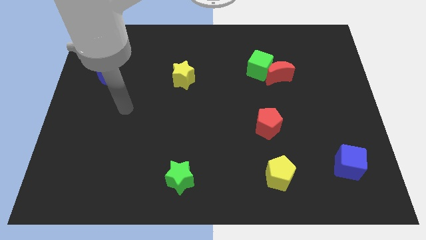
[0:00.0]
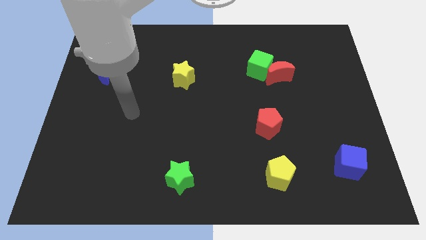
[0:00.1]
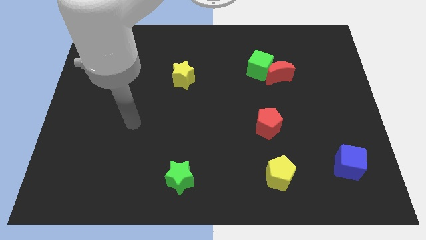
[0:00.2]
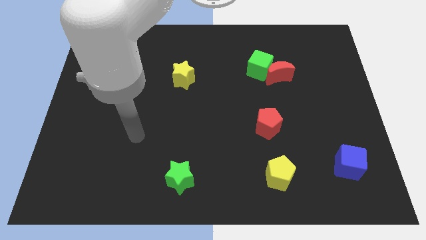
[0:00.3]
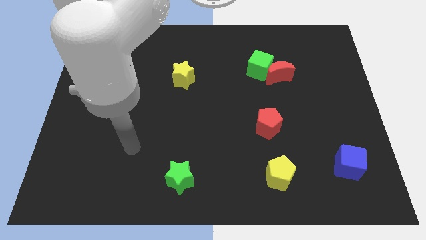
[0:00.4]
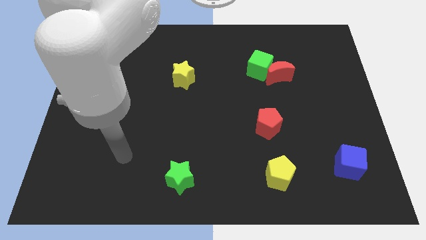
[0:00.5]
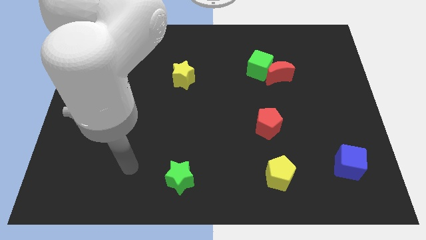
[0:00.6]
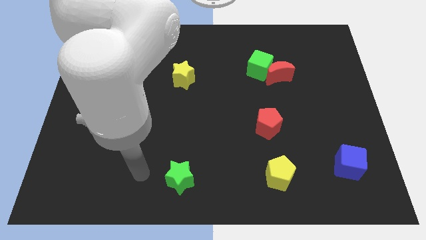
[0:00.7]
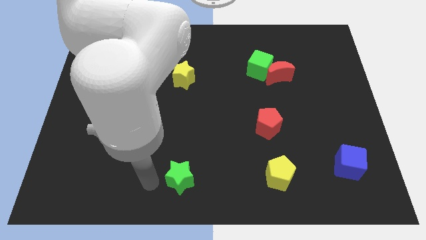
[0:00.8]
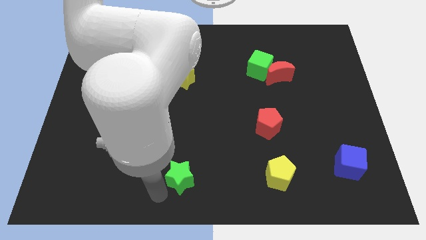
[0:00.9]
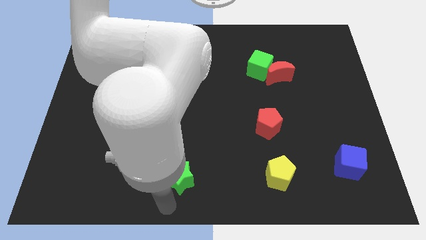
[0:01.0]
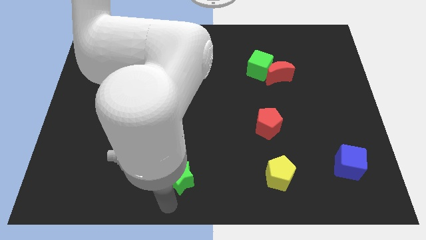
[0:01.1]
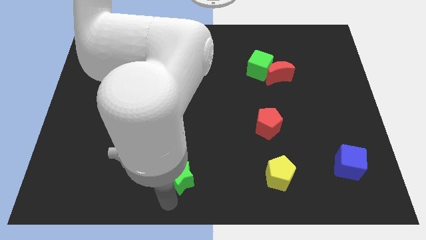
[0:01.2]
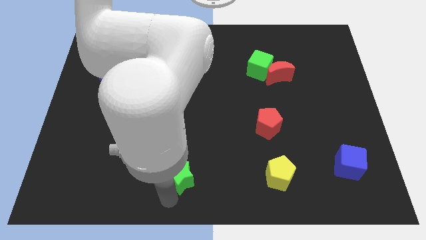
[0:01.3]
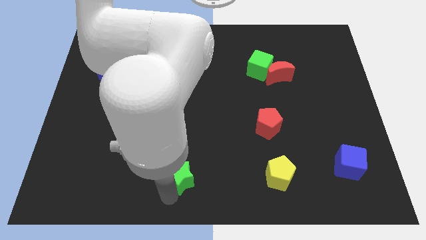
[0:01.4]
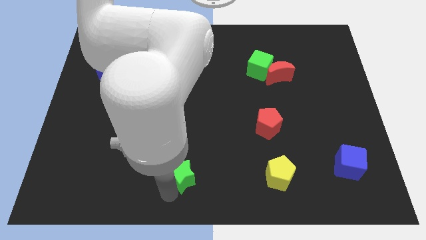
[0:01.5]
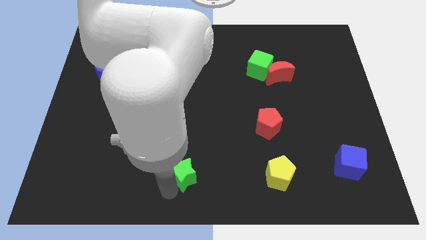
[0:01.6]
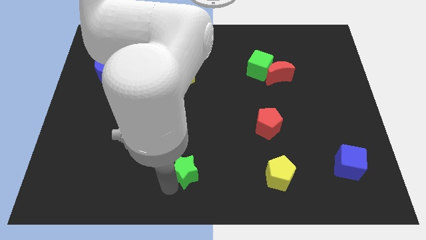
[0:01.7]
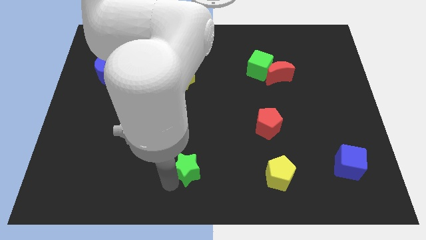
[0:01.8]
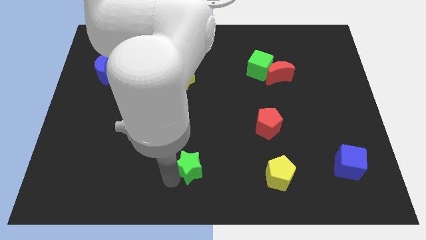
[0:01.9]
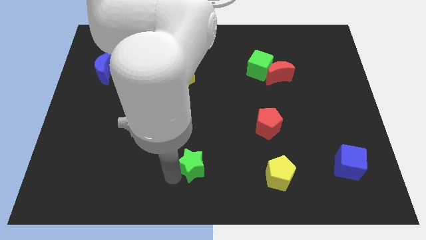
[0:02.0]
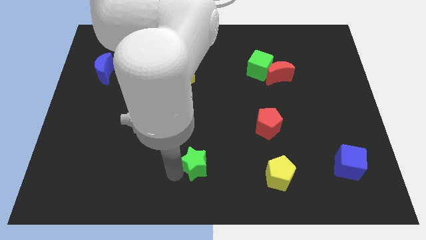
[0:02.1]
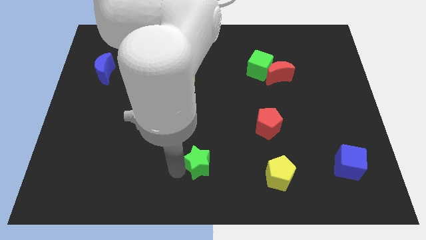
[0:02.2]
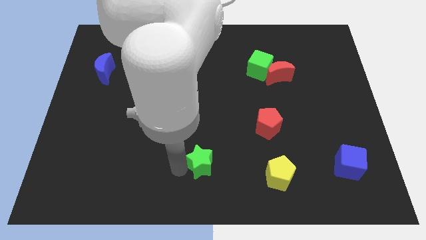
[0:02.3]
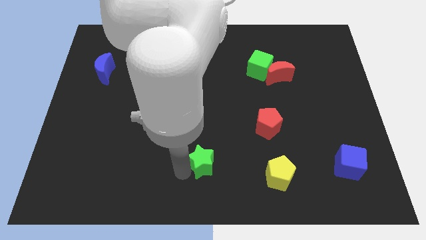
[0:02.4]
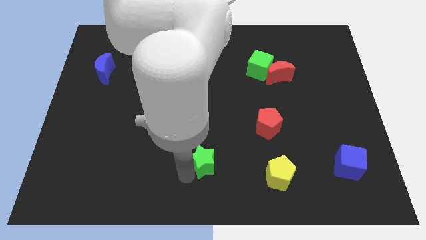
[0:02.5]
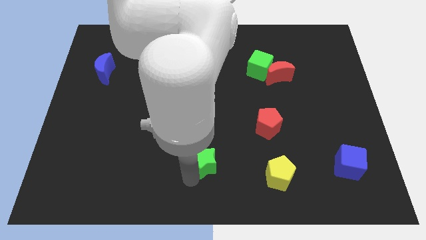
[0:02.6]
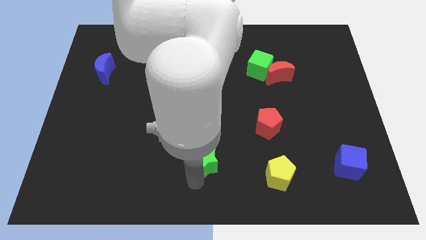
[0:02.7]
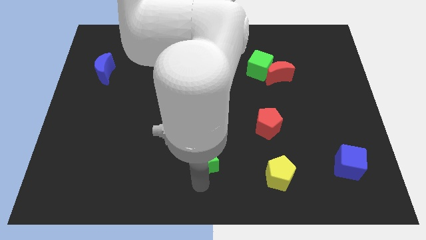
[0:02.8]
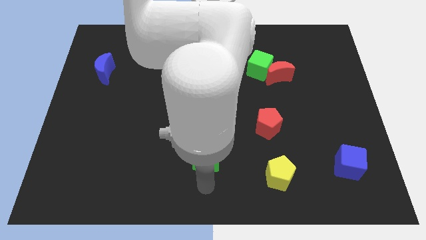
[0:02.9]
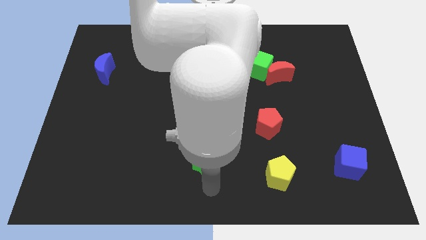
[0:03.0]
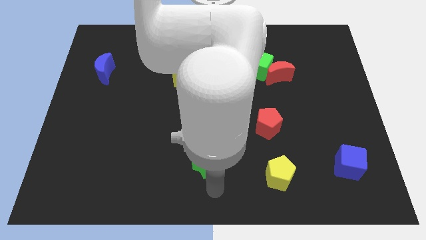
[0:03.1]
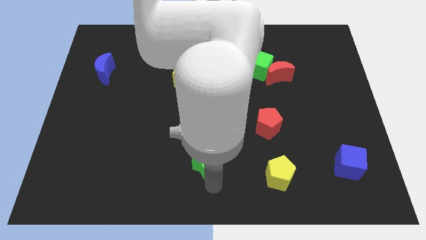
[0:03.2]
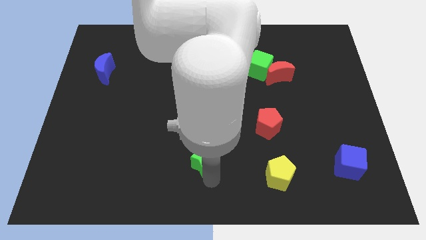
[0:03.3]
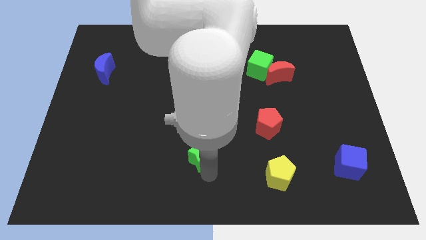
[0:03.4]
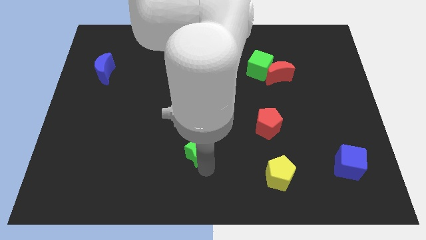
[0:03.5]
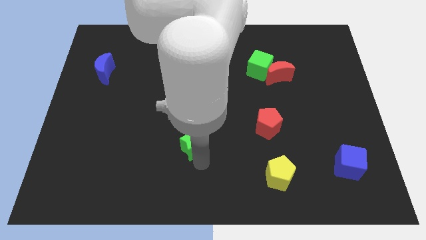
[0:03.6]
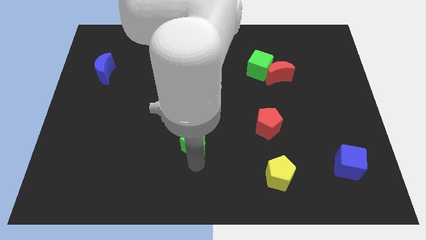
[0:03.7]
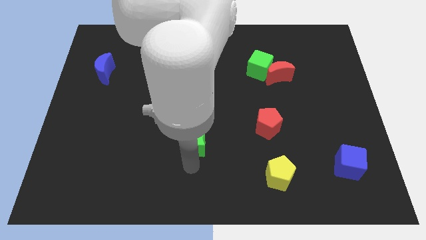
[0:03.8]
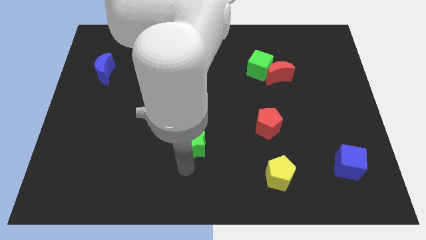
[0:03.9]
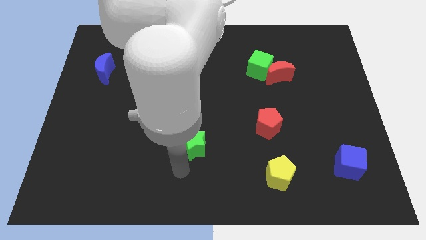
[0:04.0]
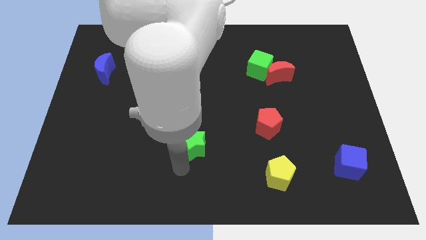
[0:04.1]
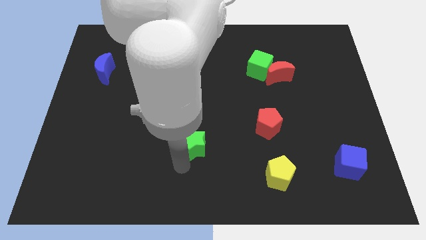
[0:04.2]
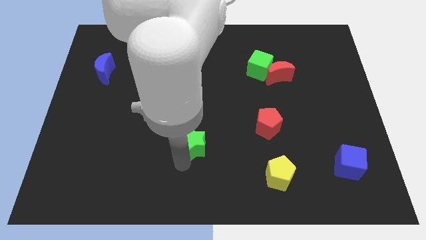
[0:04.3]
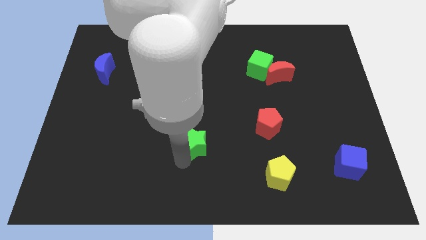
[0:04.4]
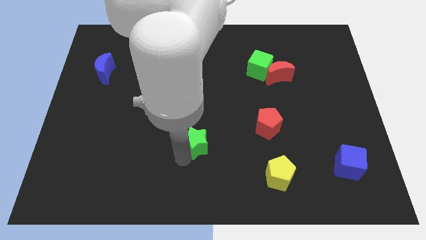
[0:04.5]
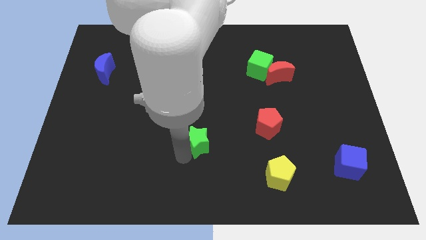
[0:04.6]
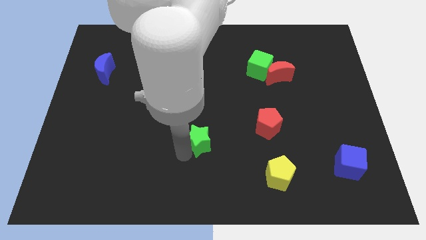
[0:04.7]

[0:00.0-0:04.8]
move the green star to the center of the board

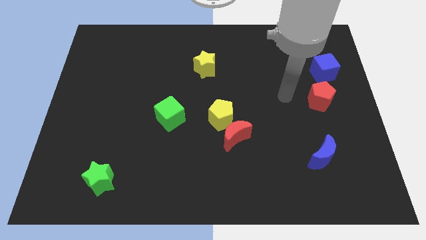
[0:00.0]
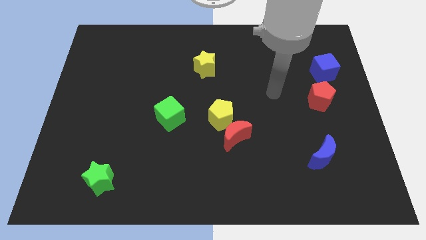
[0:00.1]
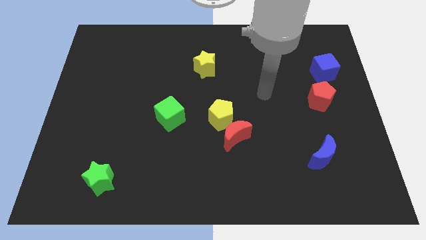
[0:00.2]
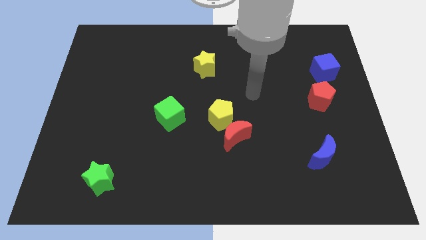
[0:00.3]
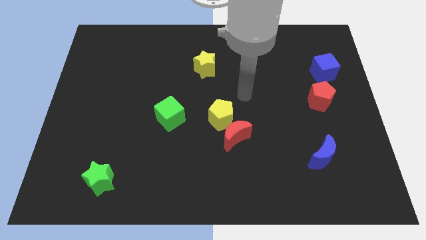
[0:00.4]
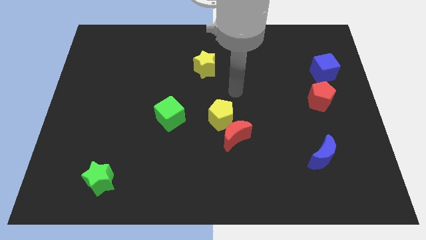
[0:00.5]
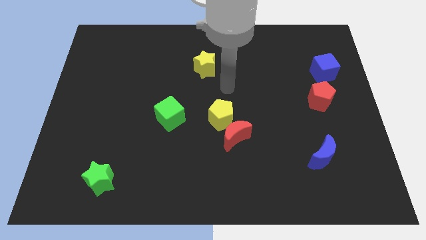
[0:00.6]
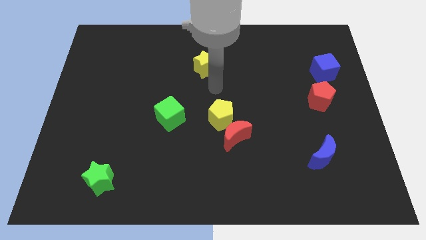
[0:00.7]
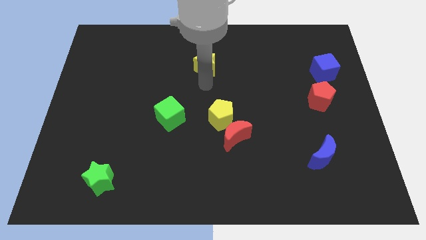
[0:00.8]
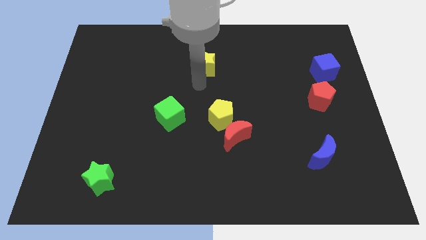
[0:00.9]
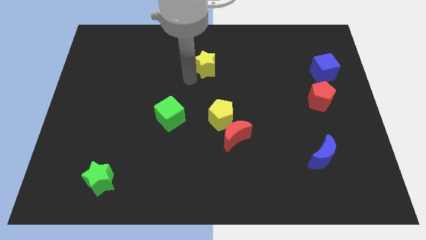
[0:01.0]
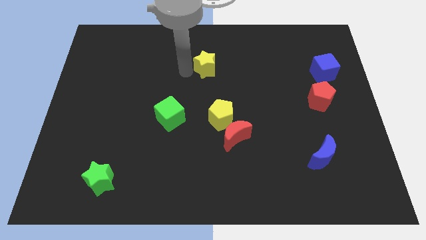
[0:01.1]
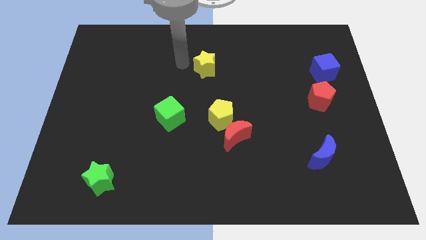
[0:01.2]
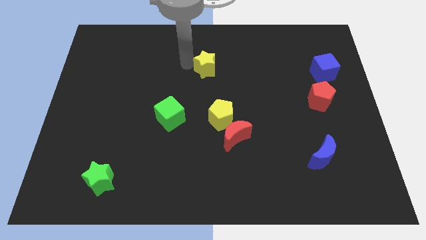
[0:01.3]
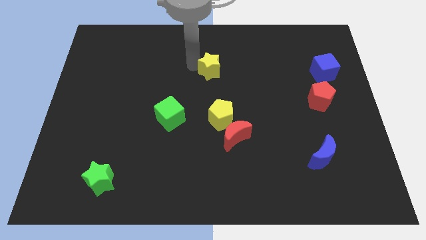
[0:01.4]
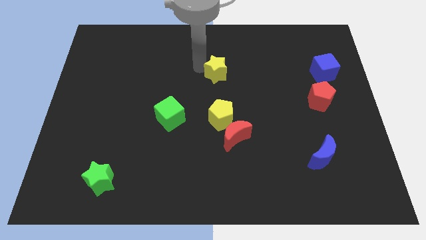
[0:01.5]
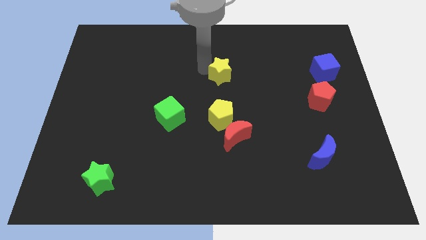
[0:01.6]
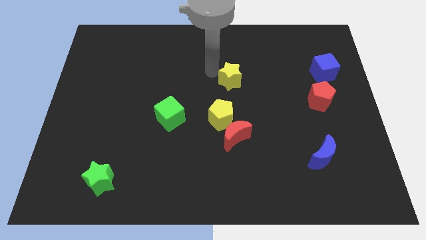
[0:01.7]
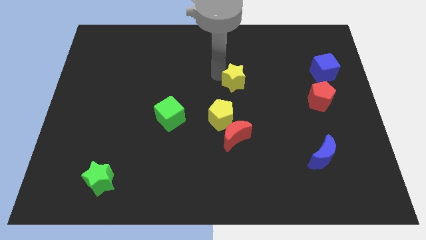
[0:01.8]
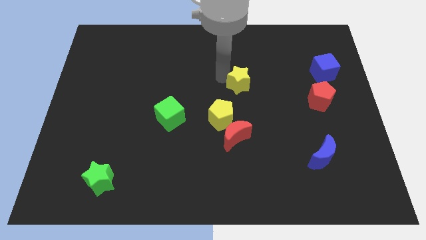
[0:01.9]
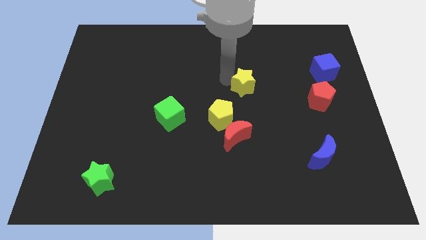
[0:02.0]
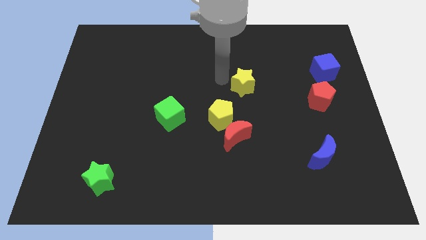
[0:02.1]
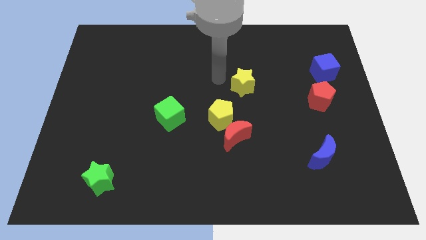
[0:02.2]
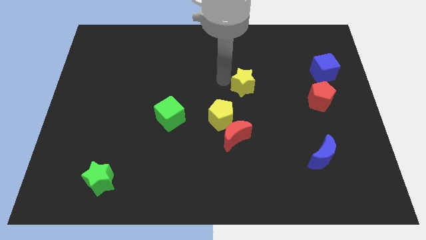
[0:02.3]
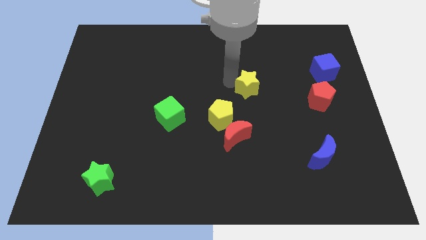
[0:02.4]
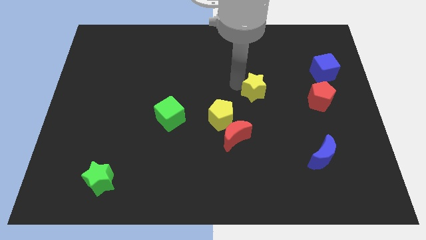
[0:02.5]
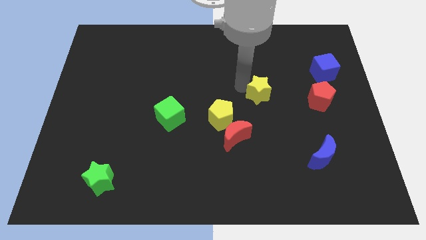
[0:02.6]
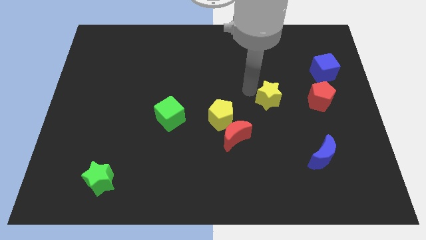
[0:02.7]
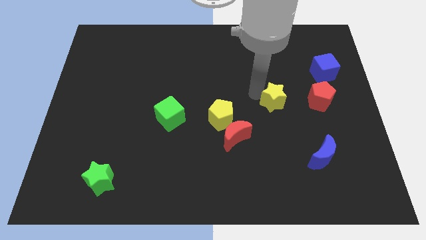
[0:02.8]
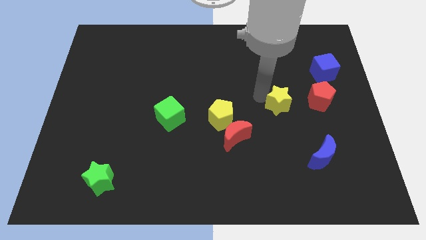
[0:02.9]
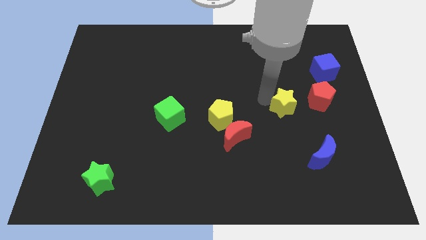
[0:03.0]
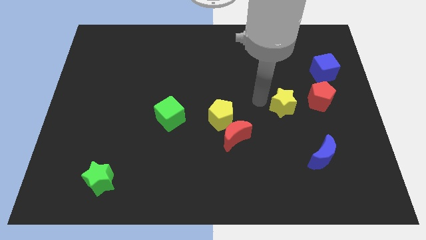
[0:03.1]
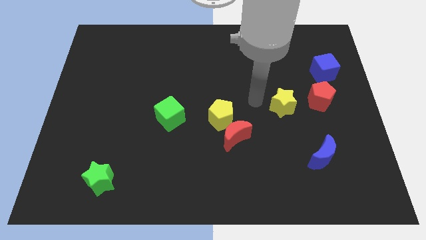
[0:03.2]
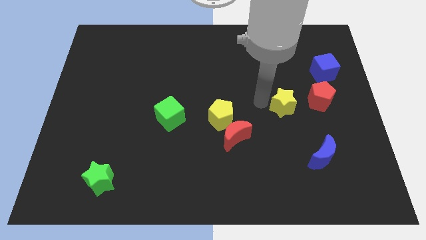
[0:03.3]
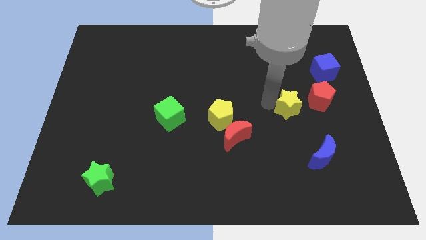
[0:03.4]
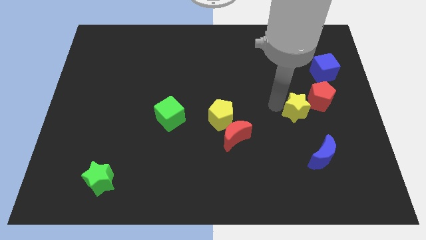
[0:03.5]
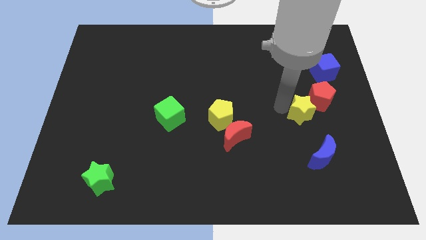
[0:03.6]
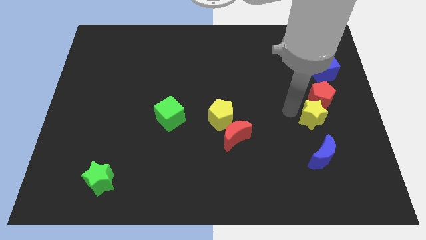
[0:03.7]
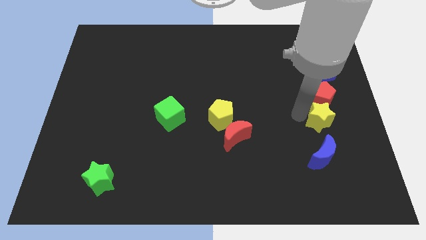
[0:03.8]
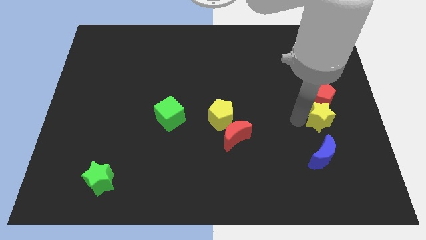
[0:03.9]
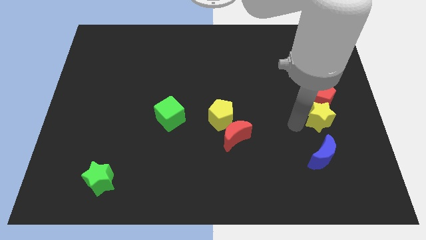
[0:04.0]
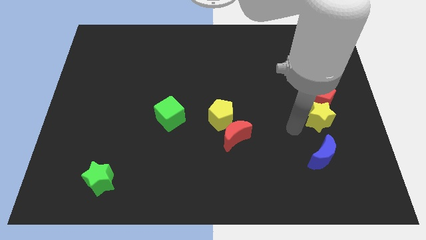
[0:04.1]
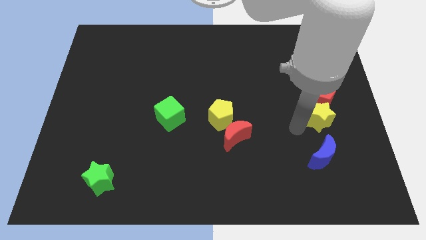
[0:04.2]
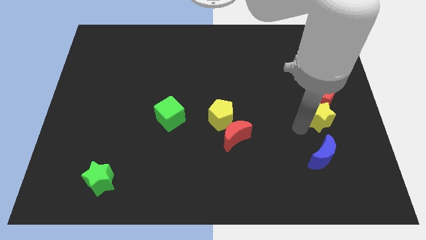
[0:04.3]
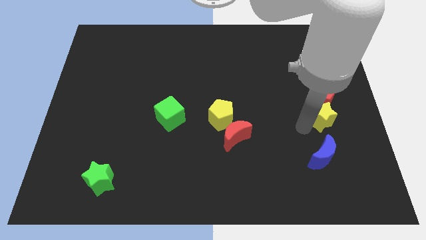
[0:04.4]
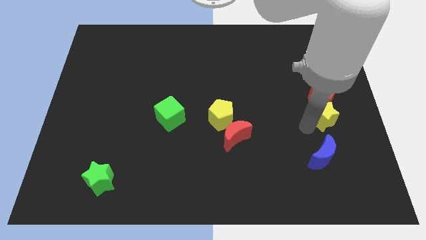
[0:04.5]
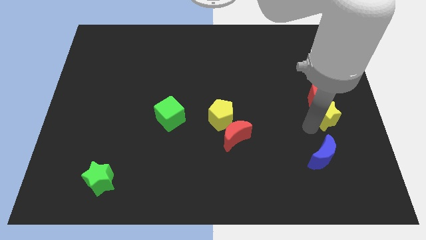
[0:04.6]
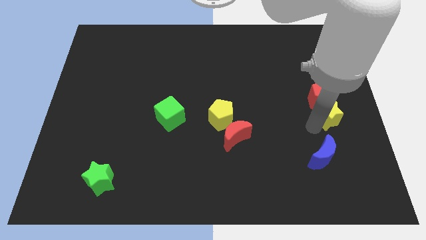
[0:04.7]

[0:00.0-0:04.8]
move the yellow star to the right side
